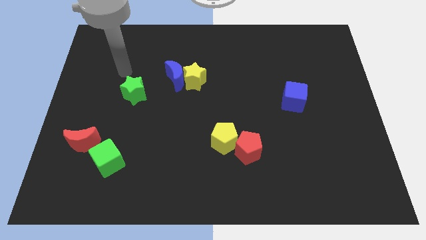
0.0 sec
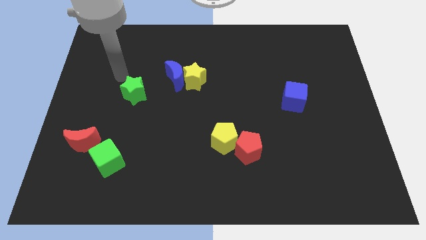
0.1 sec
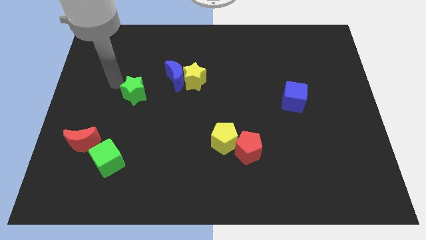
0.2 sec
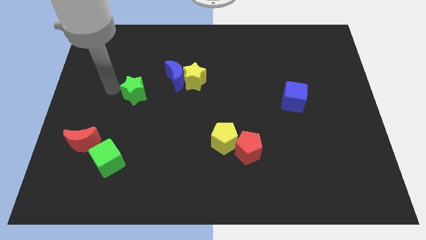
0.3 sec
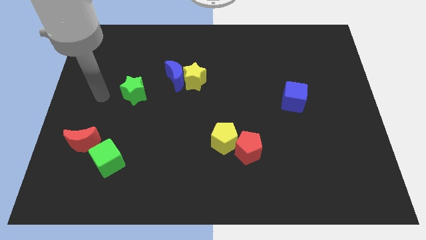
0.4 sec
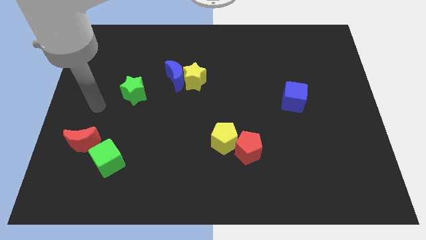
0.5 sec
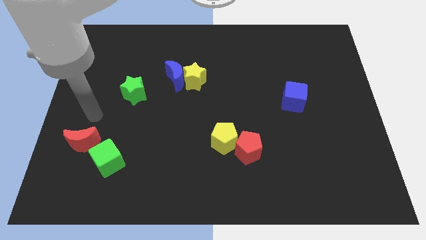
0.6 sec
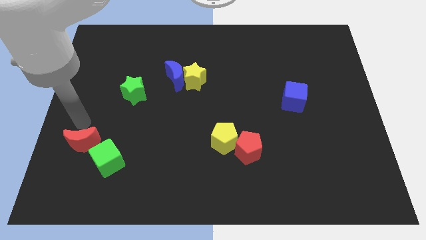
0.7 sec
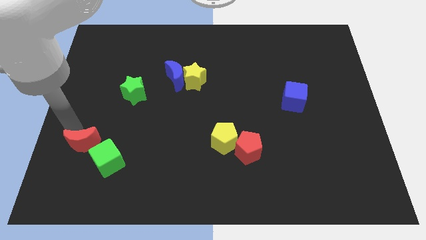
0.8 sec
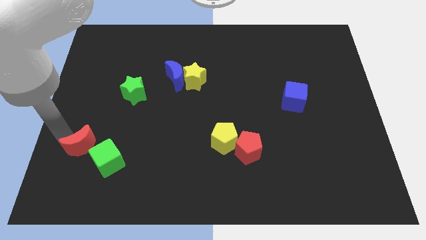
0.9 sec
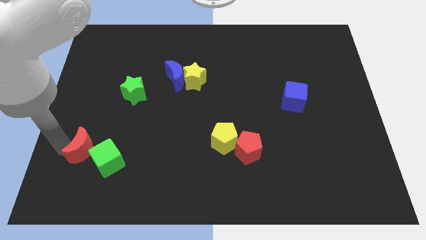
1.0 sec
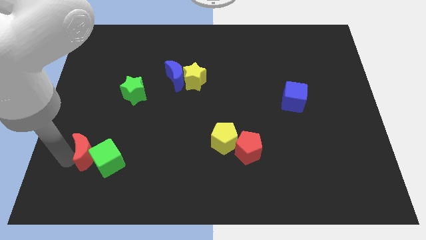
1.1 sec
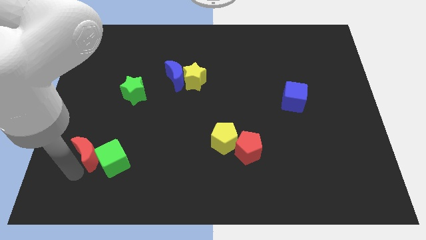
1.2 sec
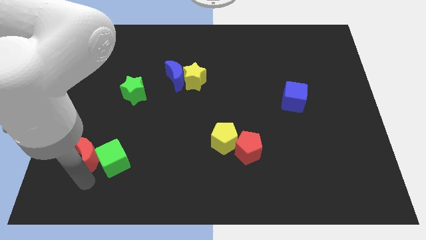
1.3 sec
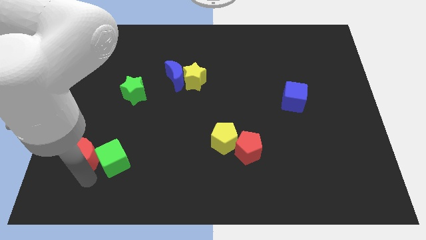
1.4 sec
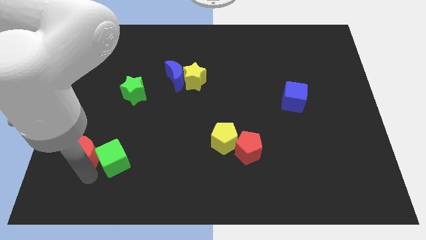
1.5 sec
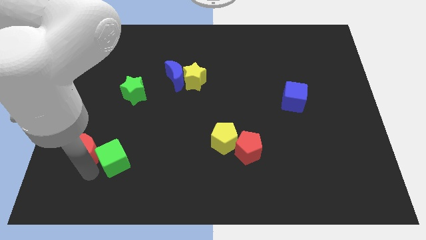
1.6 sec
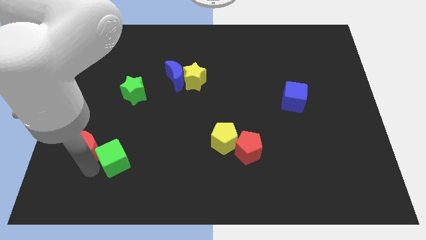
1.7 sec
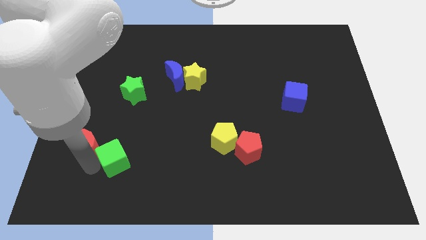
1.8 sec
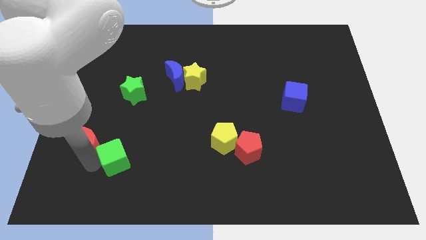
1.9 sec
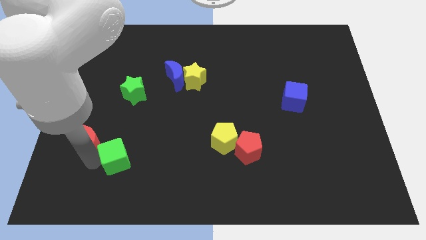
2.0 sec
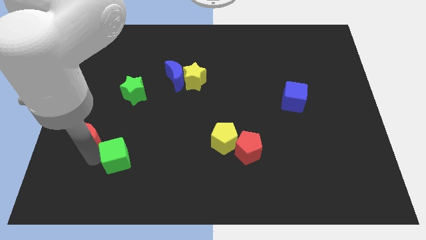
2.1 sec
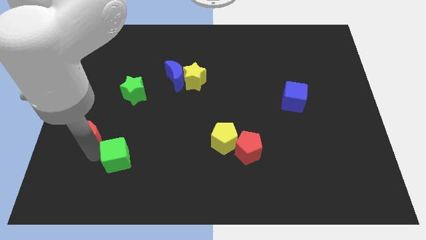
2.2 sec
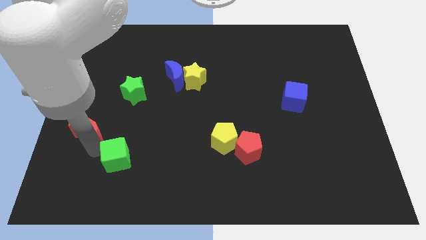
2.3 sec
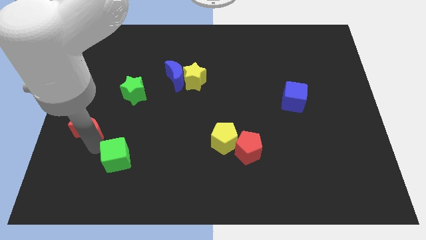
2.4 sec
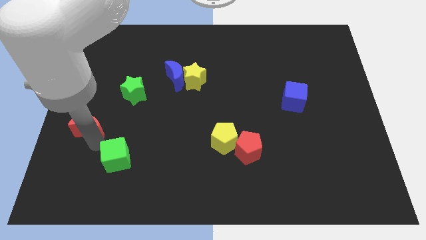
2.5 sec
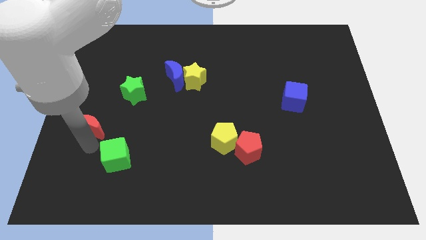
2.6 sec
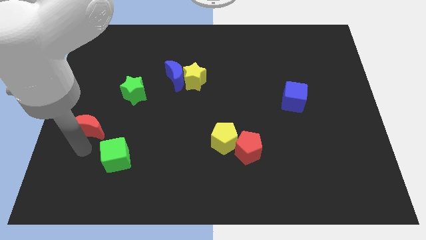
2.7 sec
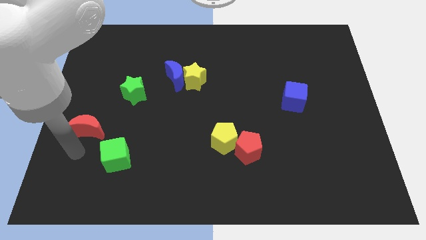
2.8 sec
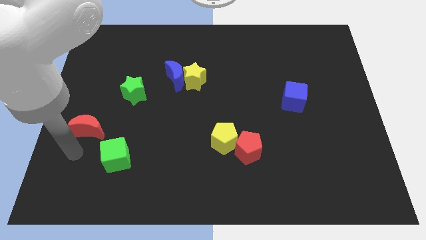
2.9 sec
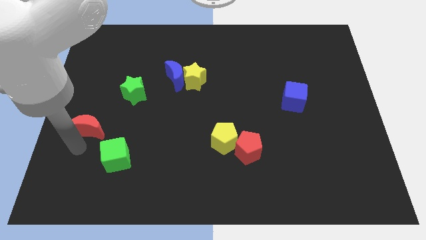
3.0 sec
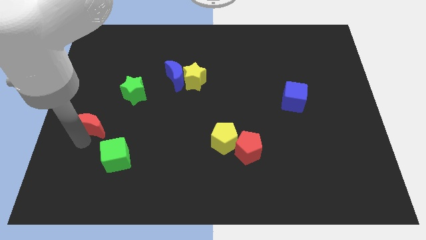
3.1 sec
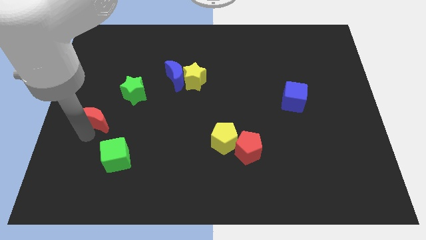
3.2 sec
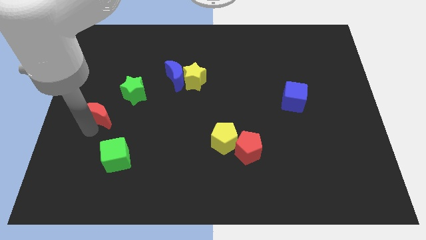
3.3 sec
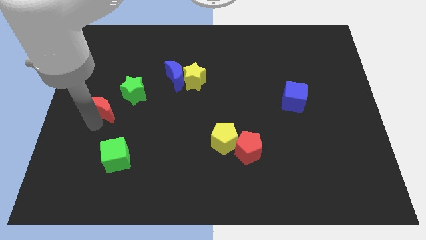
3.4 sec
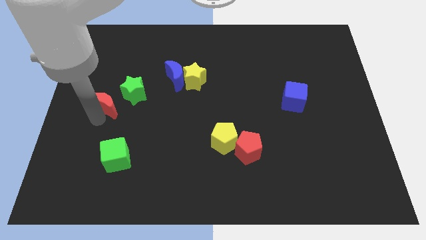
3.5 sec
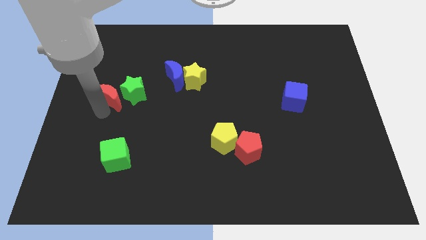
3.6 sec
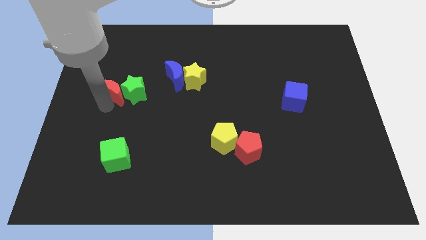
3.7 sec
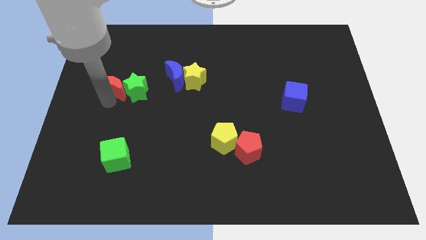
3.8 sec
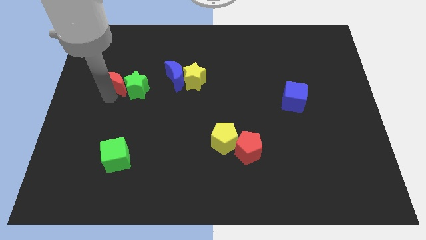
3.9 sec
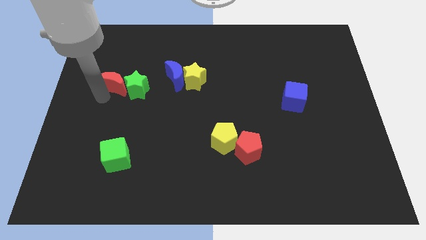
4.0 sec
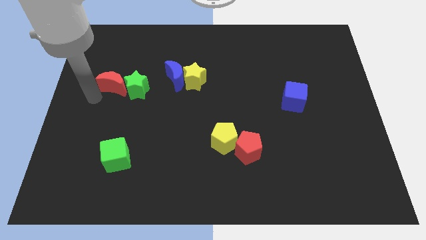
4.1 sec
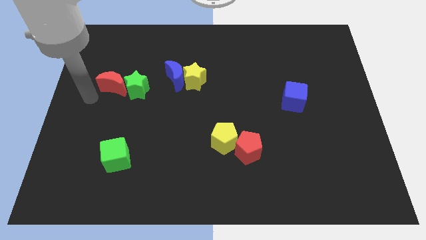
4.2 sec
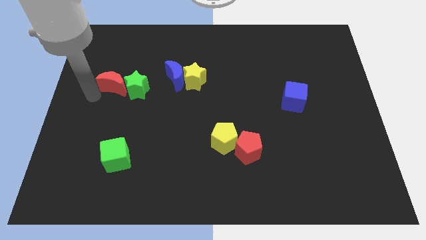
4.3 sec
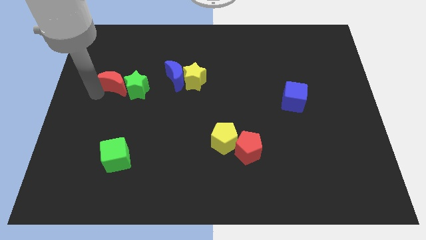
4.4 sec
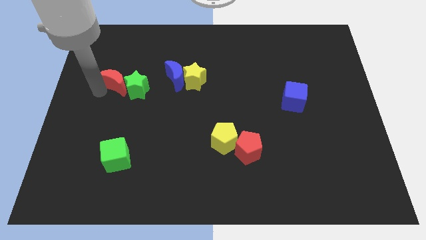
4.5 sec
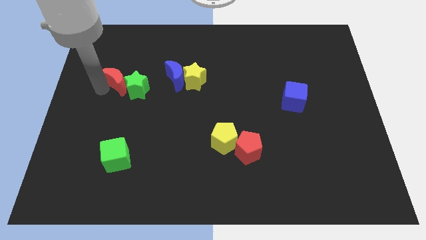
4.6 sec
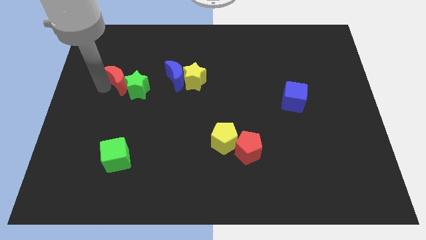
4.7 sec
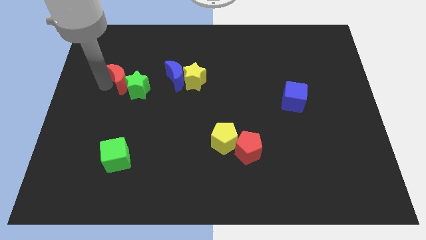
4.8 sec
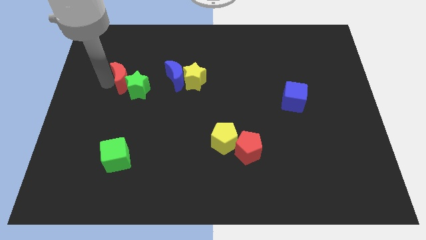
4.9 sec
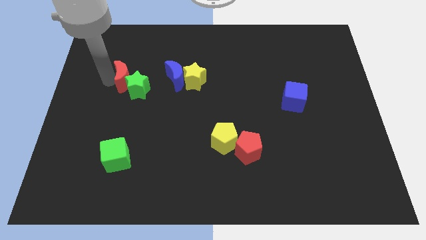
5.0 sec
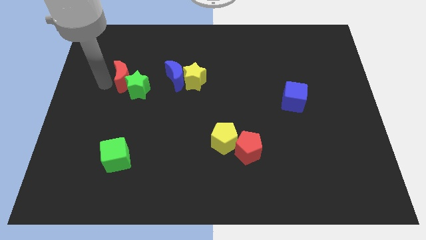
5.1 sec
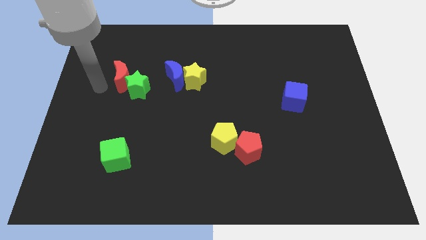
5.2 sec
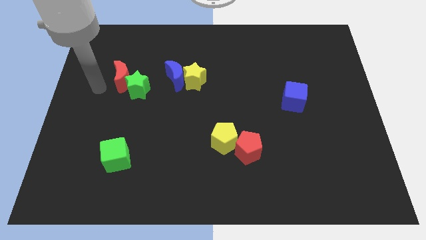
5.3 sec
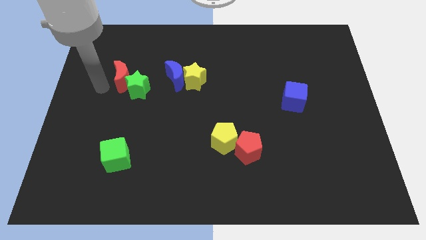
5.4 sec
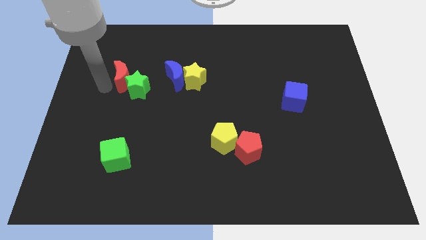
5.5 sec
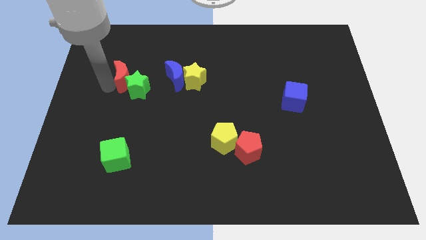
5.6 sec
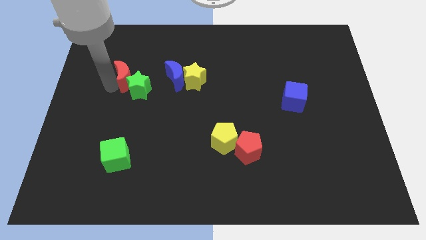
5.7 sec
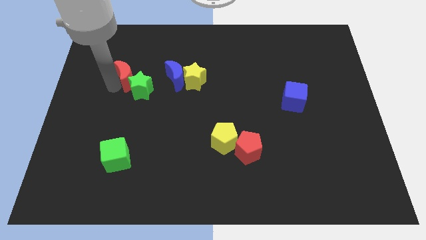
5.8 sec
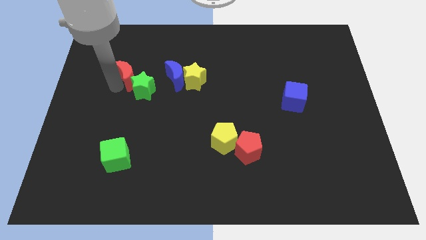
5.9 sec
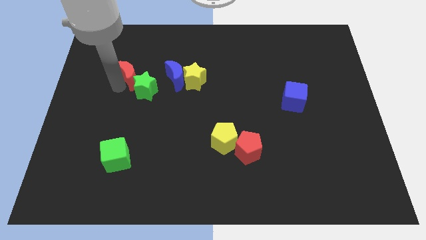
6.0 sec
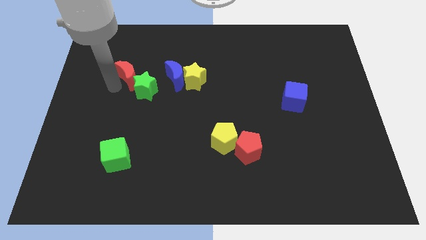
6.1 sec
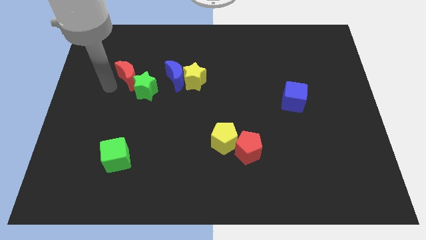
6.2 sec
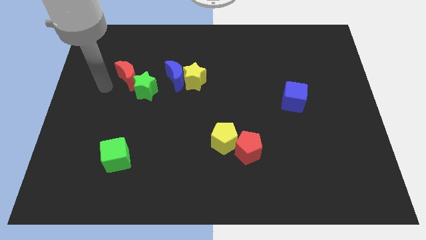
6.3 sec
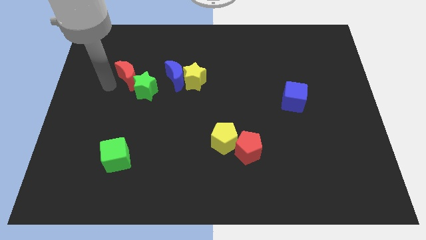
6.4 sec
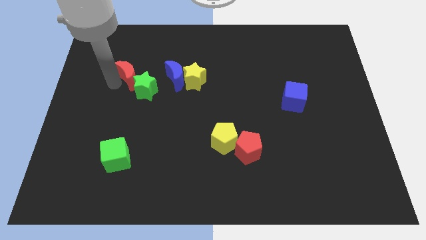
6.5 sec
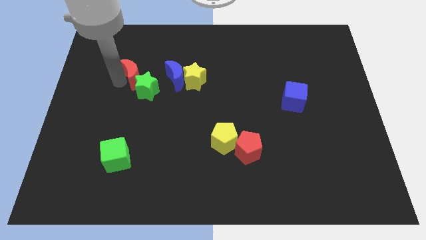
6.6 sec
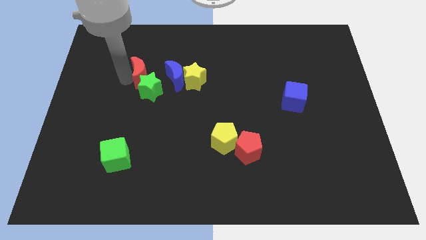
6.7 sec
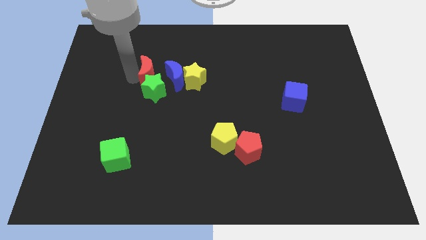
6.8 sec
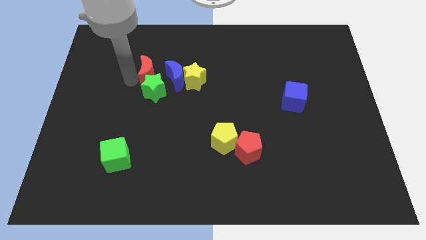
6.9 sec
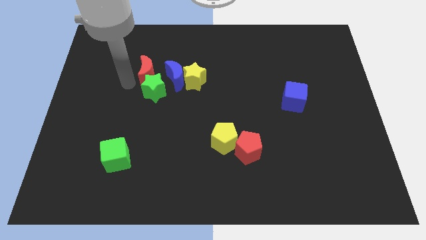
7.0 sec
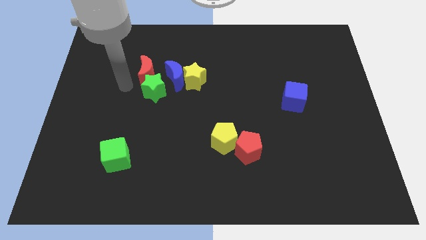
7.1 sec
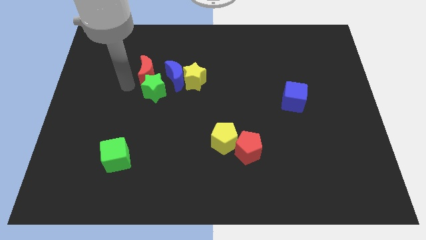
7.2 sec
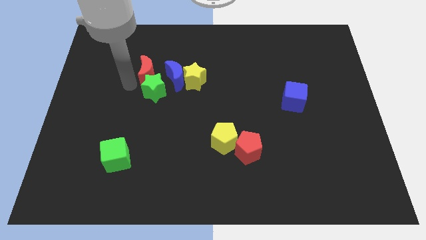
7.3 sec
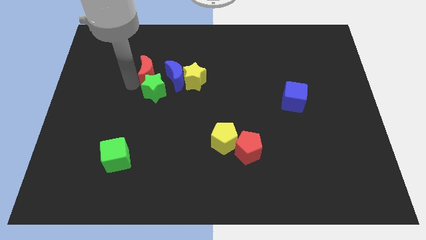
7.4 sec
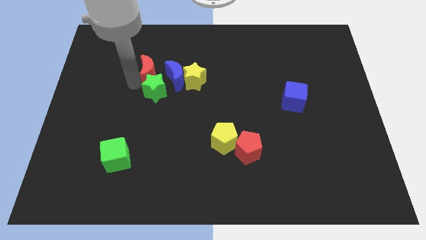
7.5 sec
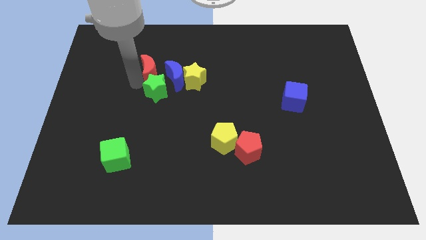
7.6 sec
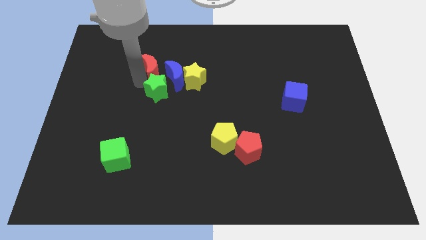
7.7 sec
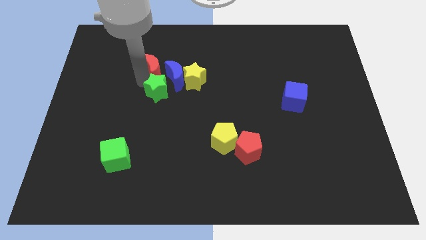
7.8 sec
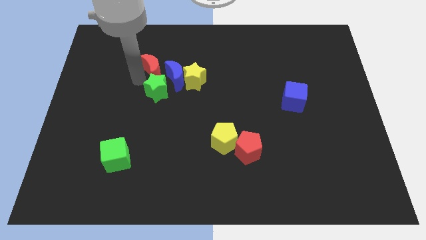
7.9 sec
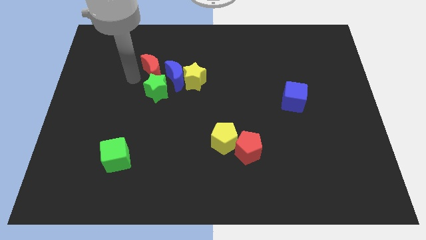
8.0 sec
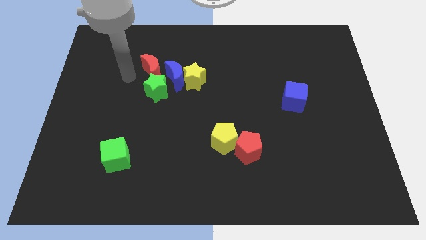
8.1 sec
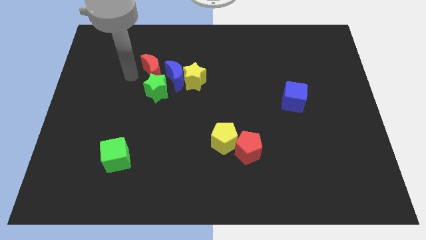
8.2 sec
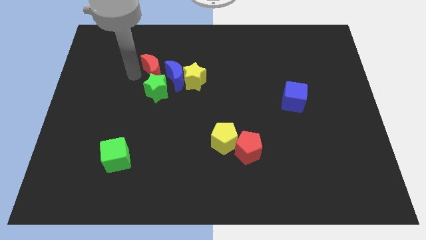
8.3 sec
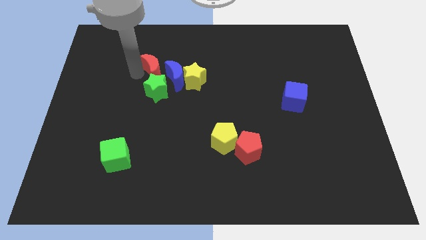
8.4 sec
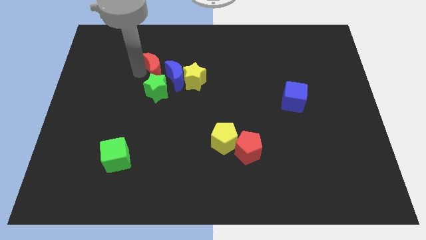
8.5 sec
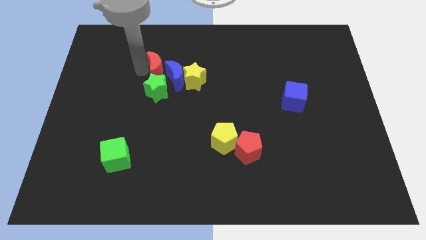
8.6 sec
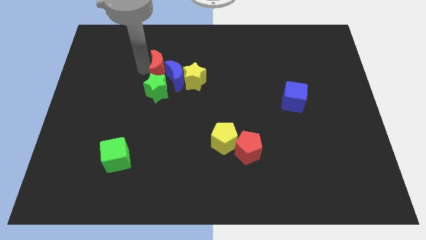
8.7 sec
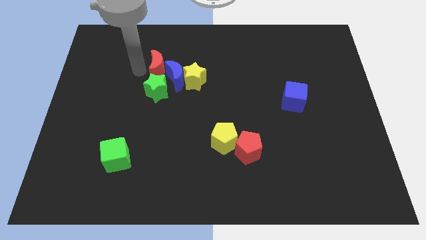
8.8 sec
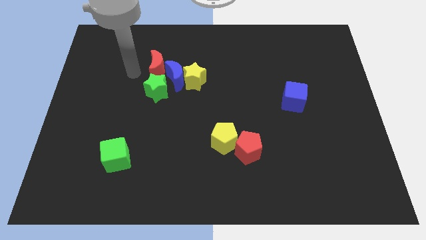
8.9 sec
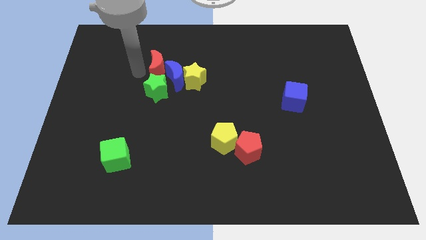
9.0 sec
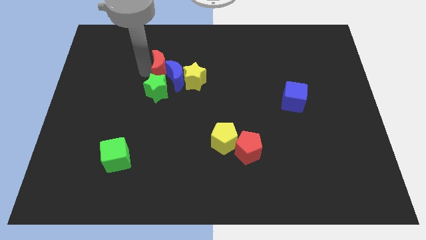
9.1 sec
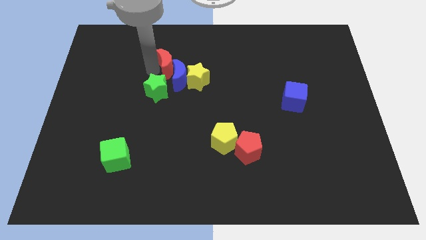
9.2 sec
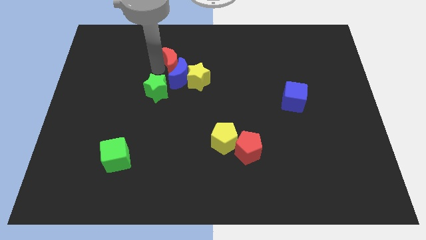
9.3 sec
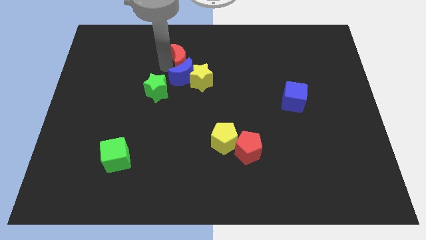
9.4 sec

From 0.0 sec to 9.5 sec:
move the red moon to the top right of the blue moon
